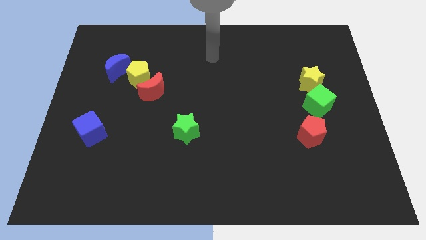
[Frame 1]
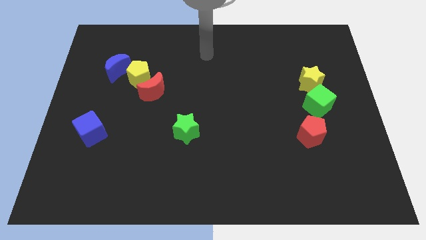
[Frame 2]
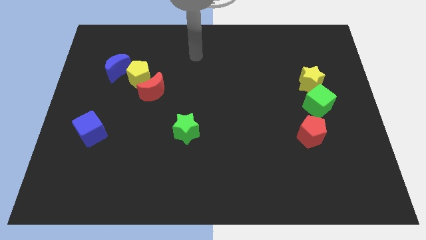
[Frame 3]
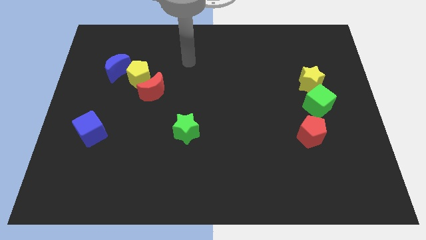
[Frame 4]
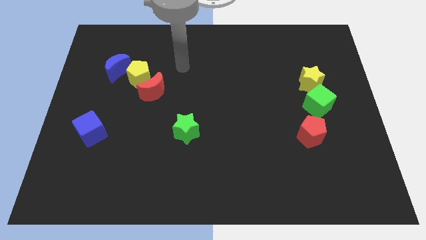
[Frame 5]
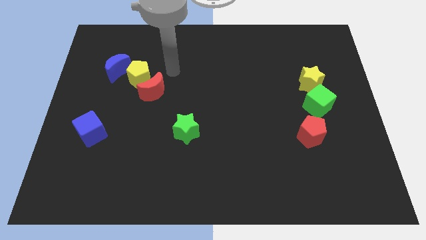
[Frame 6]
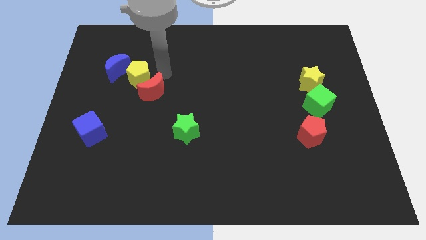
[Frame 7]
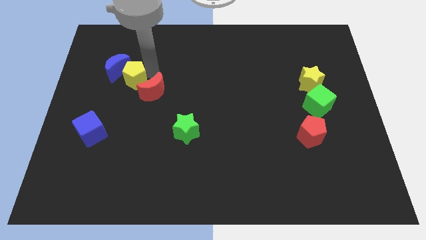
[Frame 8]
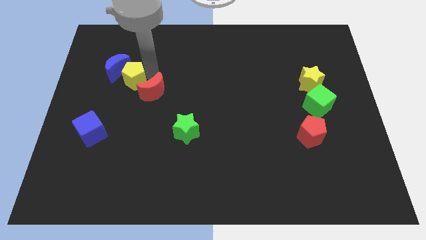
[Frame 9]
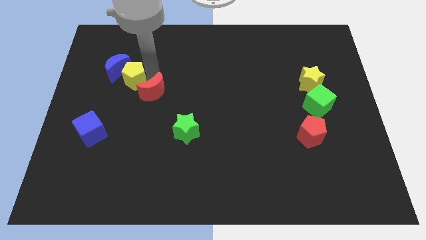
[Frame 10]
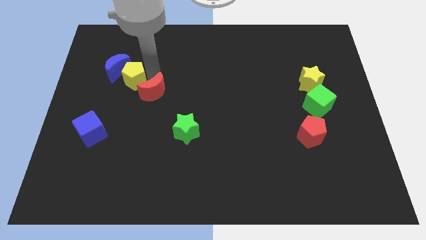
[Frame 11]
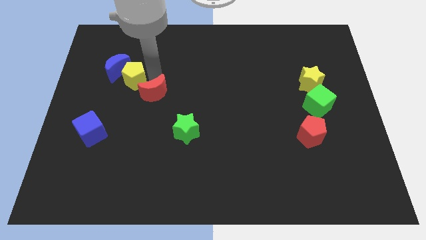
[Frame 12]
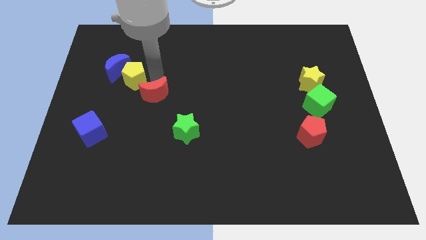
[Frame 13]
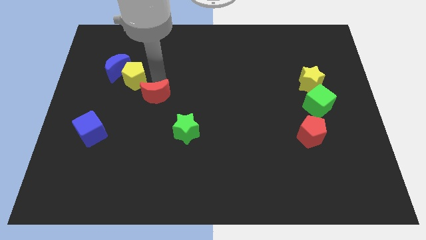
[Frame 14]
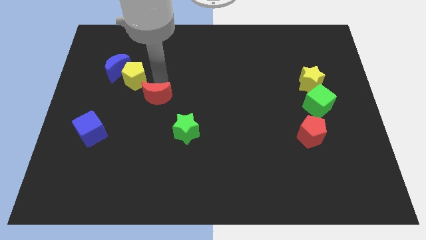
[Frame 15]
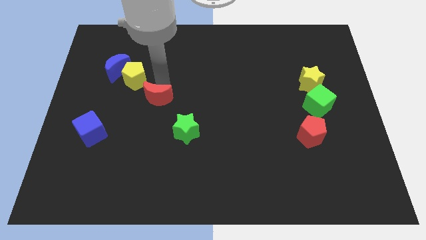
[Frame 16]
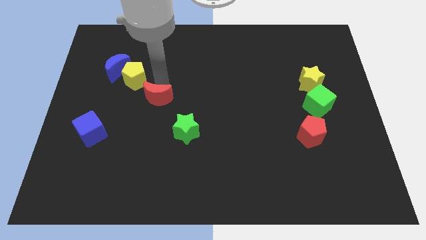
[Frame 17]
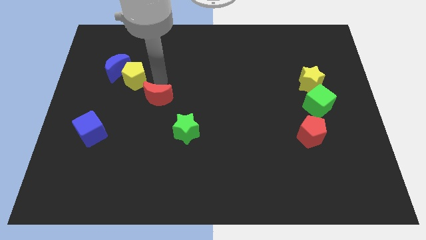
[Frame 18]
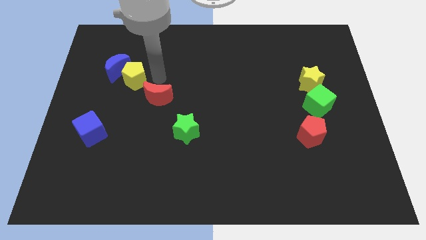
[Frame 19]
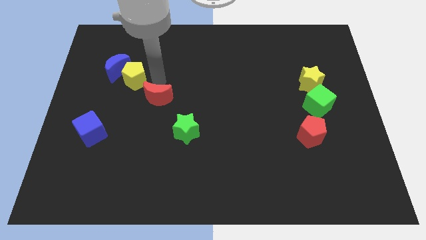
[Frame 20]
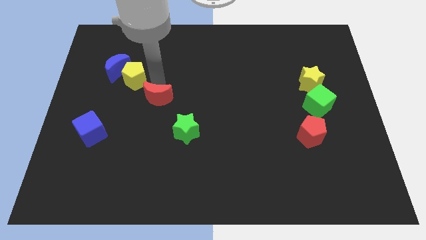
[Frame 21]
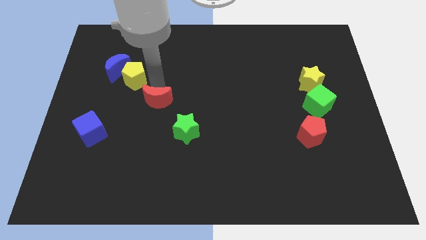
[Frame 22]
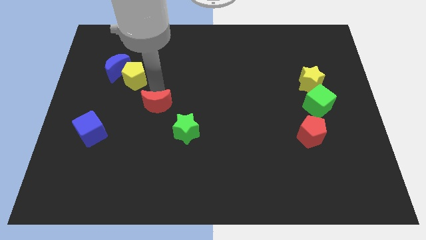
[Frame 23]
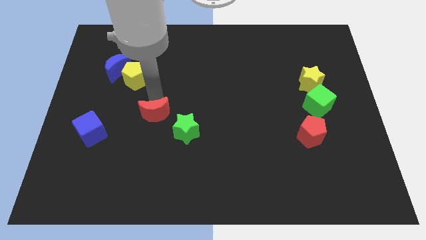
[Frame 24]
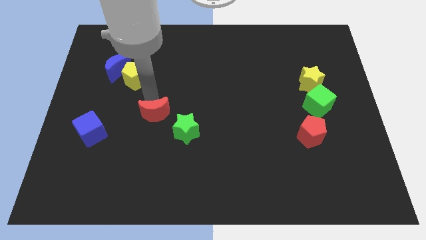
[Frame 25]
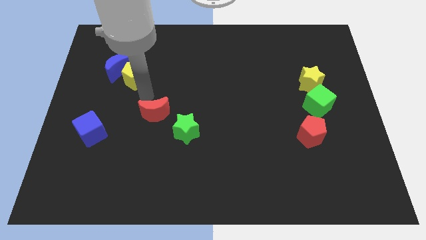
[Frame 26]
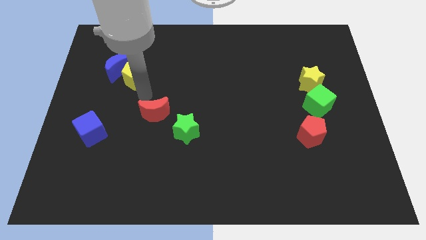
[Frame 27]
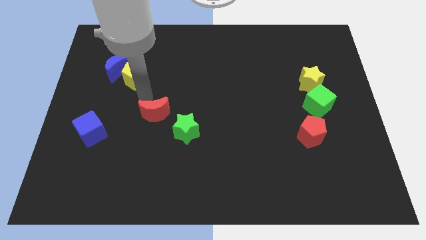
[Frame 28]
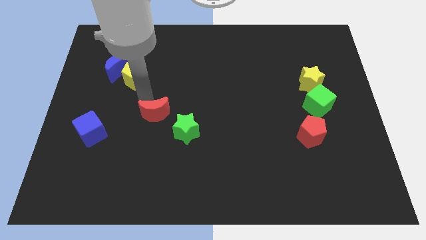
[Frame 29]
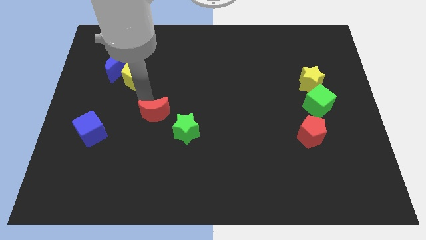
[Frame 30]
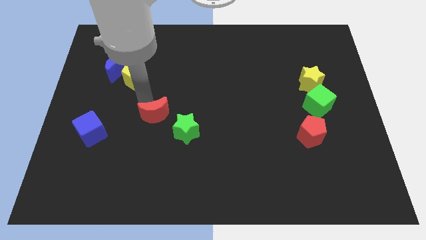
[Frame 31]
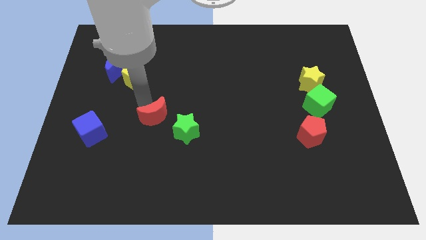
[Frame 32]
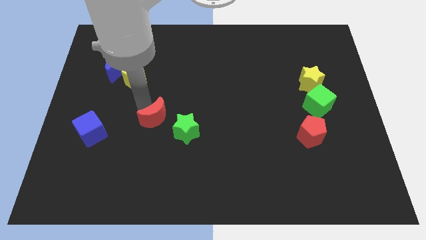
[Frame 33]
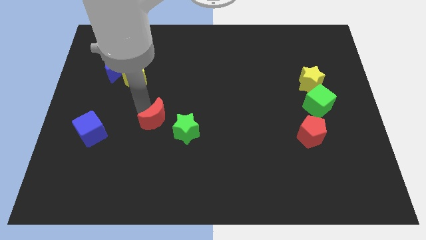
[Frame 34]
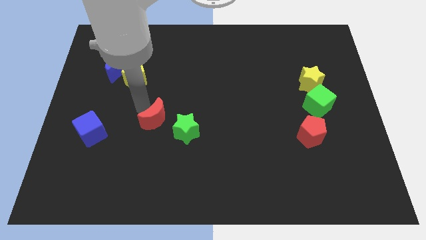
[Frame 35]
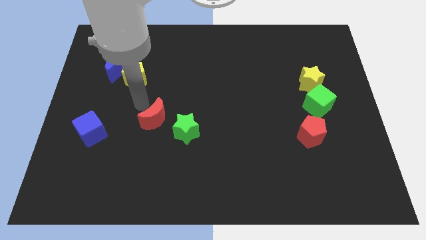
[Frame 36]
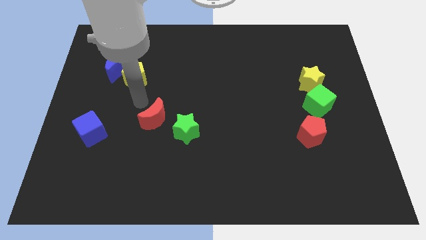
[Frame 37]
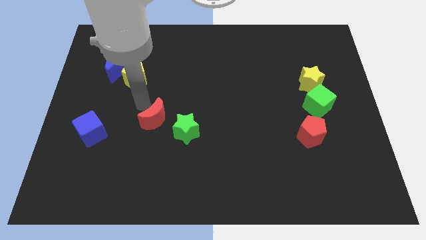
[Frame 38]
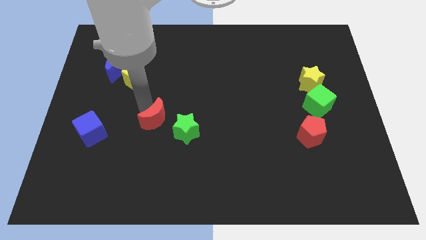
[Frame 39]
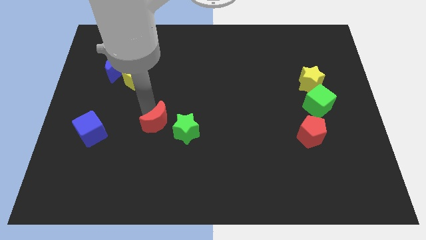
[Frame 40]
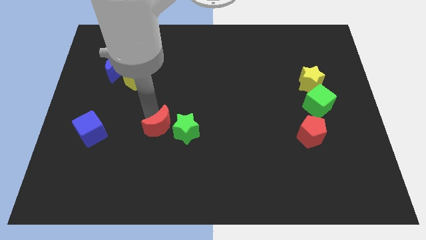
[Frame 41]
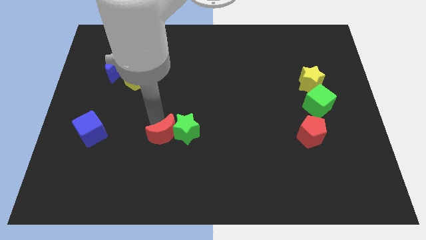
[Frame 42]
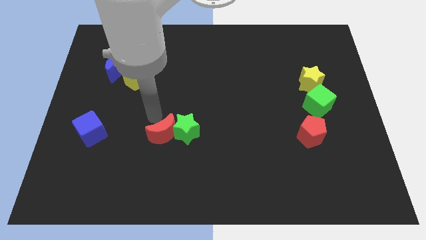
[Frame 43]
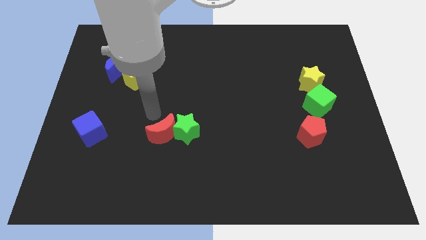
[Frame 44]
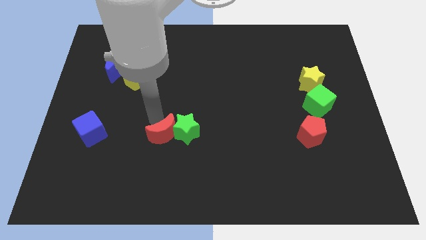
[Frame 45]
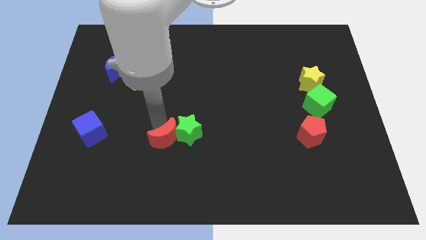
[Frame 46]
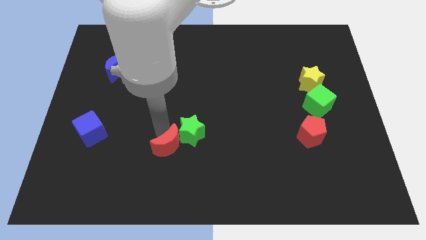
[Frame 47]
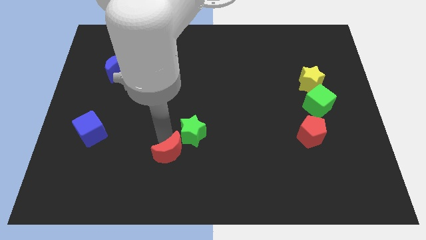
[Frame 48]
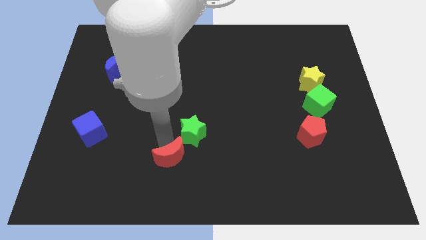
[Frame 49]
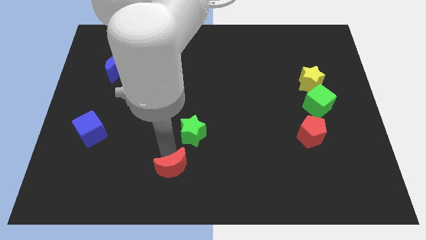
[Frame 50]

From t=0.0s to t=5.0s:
move the red moon to the bottom

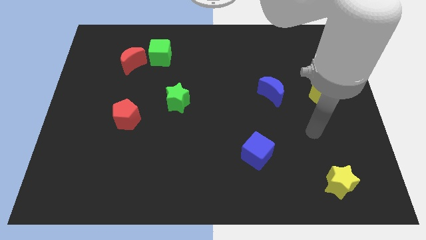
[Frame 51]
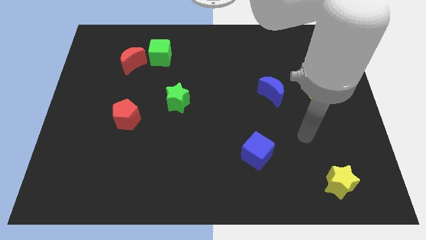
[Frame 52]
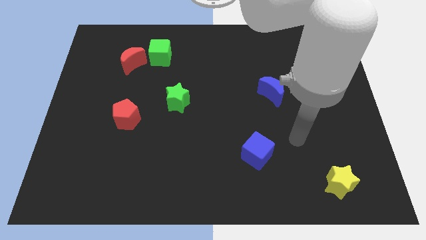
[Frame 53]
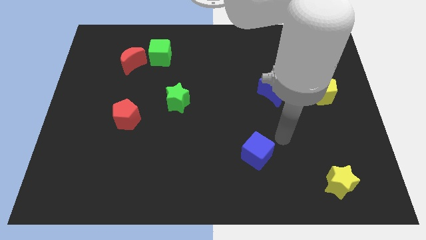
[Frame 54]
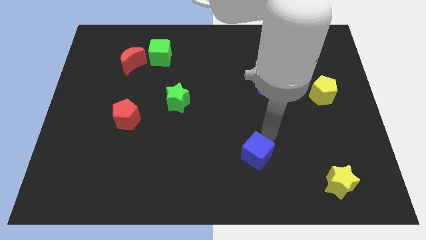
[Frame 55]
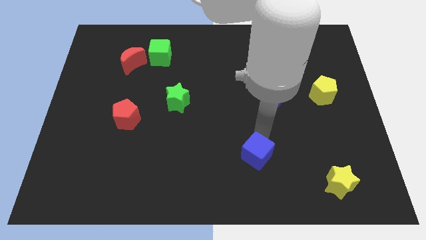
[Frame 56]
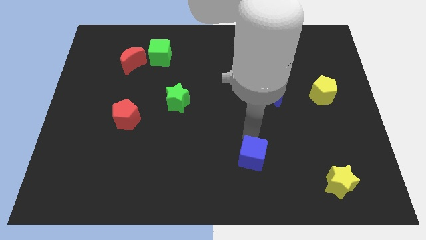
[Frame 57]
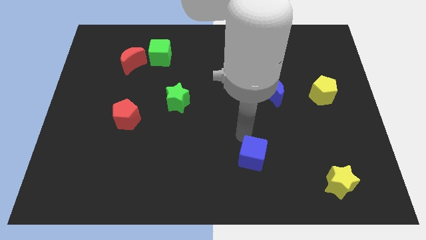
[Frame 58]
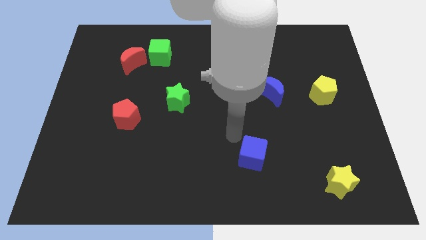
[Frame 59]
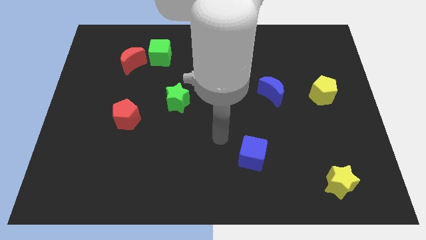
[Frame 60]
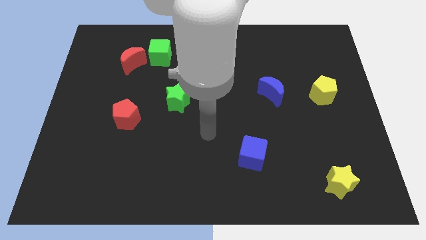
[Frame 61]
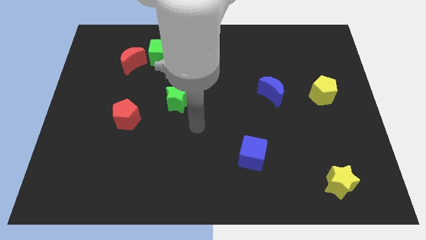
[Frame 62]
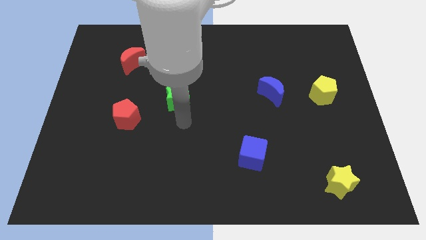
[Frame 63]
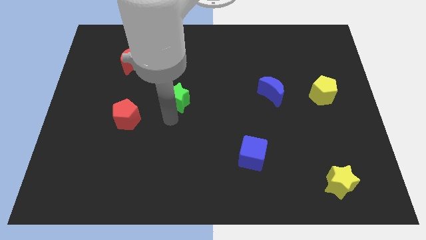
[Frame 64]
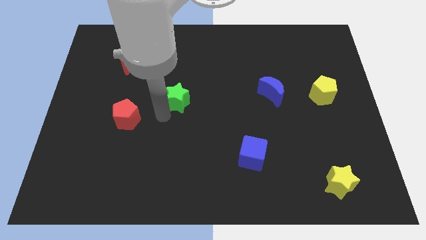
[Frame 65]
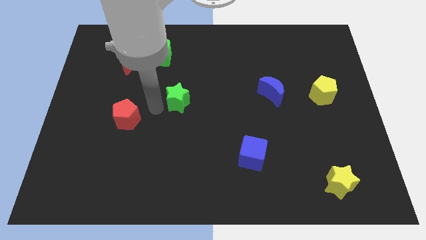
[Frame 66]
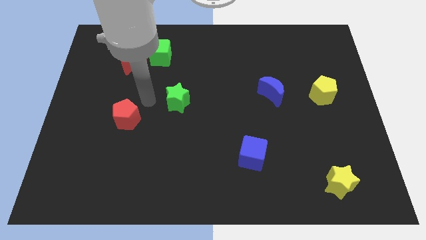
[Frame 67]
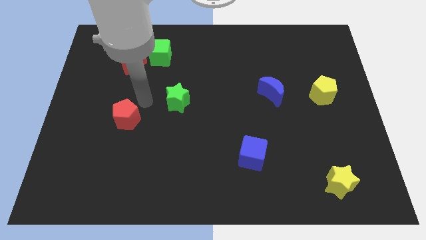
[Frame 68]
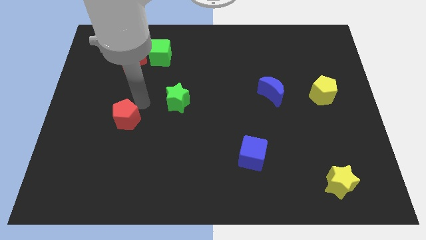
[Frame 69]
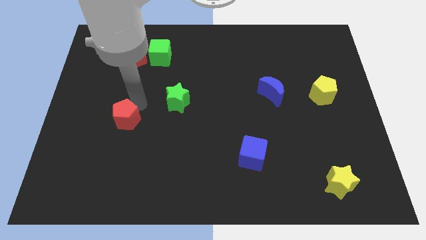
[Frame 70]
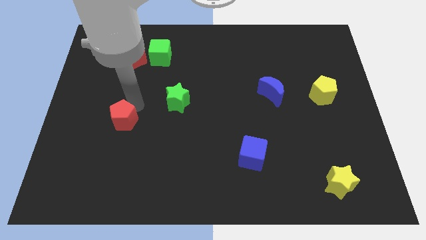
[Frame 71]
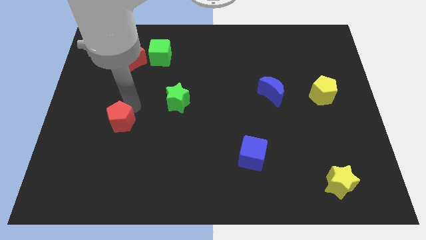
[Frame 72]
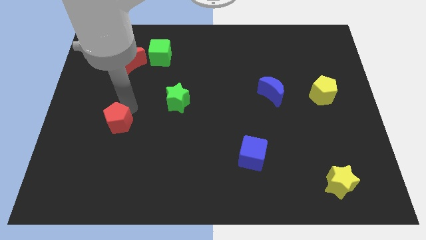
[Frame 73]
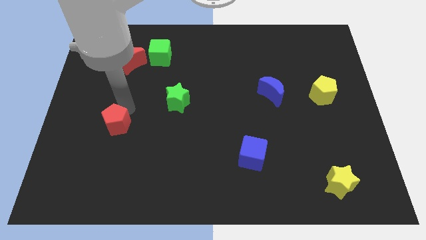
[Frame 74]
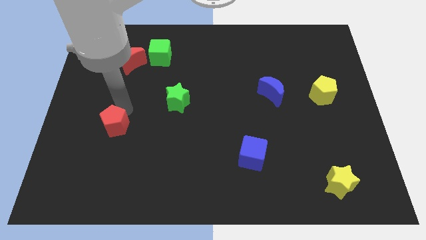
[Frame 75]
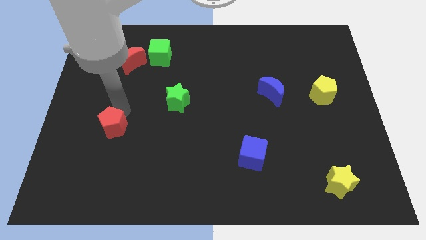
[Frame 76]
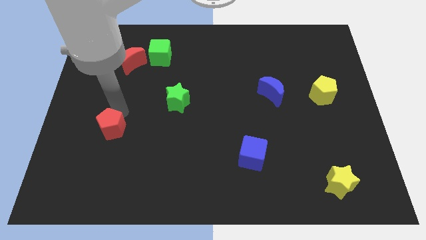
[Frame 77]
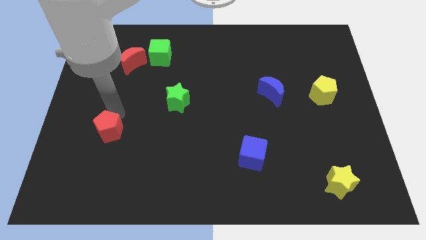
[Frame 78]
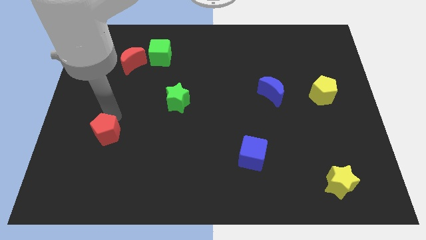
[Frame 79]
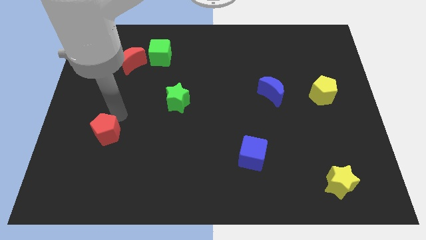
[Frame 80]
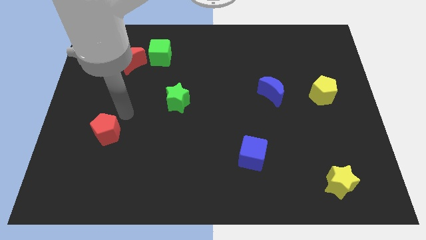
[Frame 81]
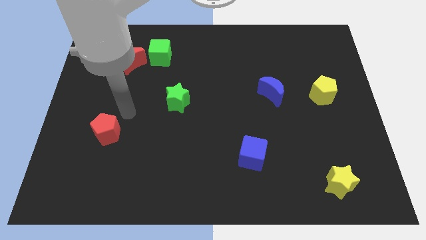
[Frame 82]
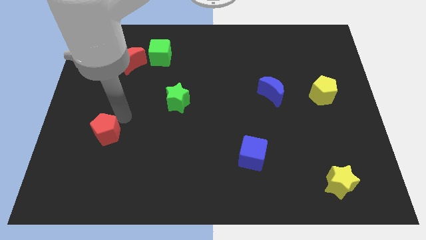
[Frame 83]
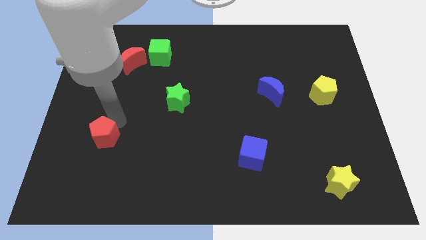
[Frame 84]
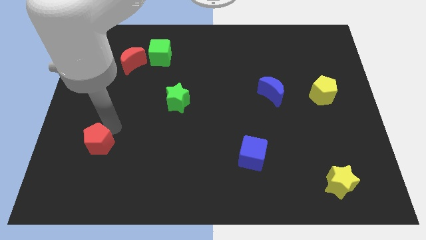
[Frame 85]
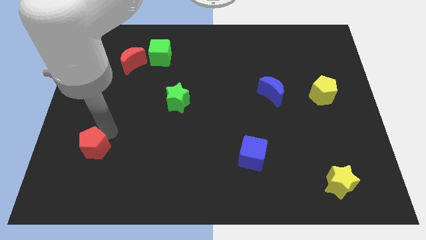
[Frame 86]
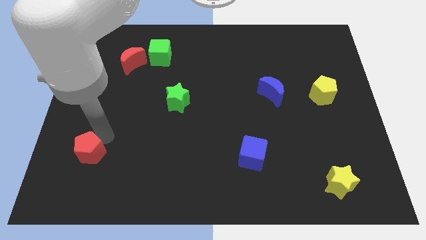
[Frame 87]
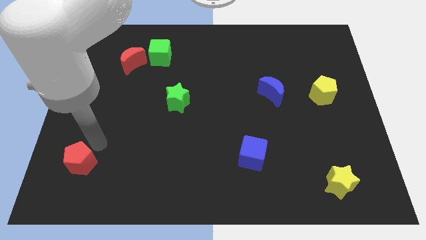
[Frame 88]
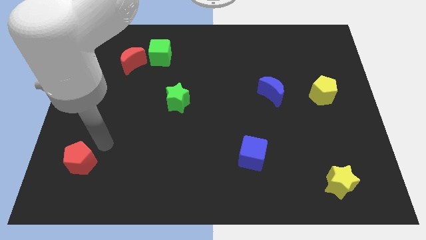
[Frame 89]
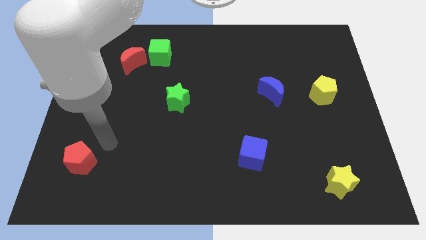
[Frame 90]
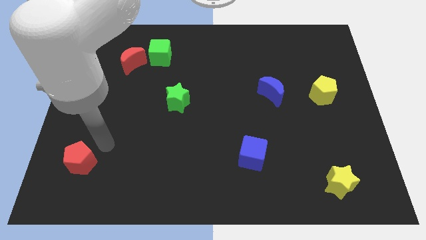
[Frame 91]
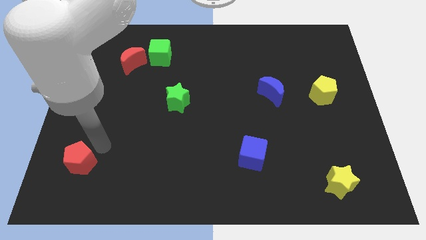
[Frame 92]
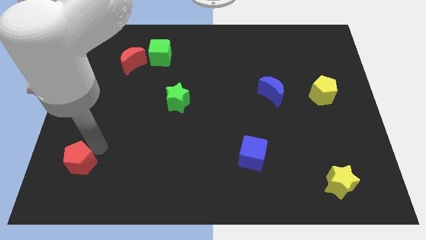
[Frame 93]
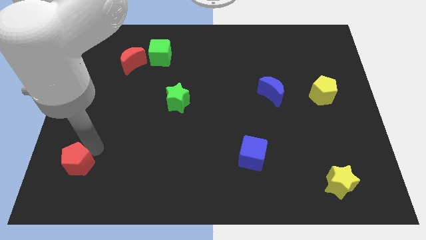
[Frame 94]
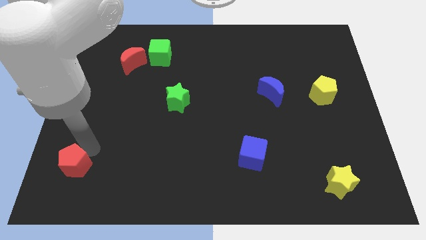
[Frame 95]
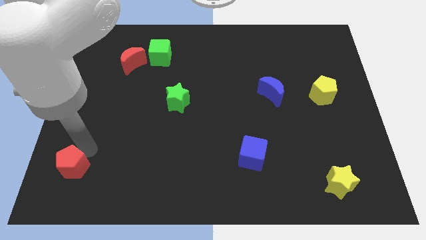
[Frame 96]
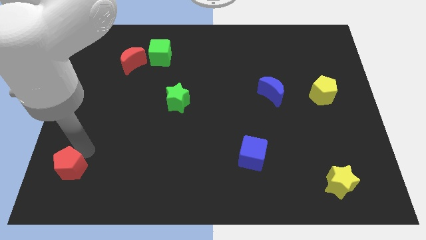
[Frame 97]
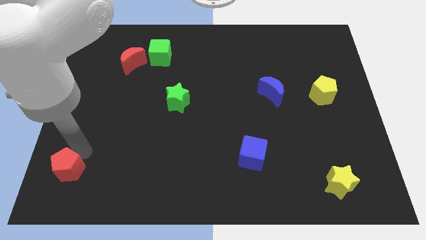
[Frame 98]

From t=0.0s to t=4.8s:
put the red pentagon to the bottom left corner
